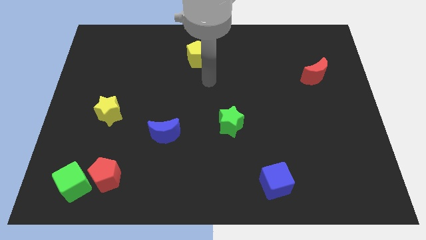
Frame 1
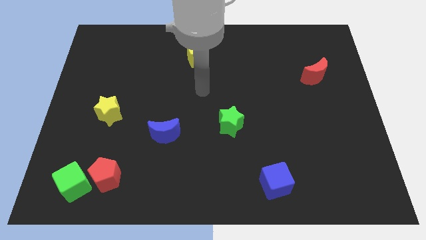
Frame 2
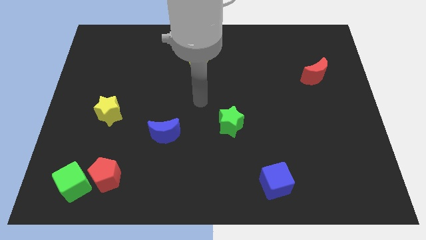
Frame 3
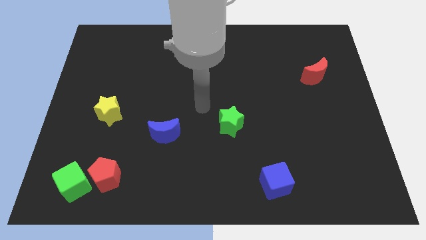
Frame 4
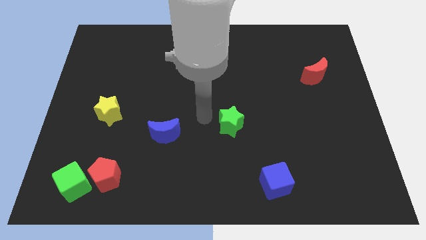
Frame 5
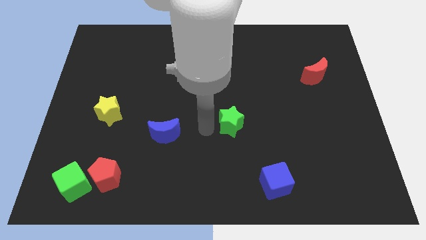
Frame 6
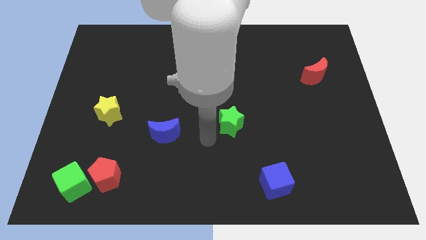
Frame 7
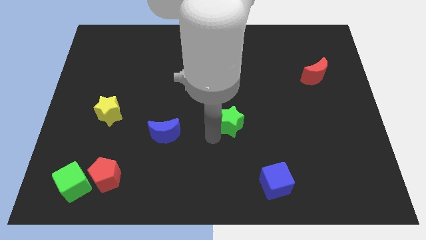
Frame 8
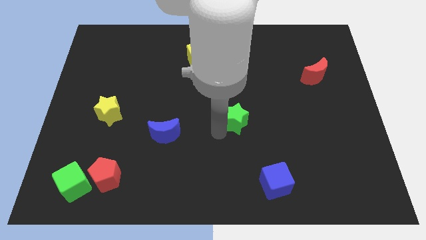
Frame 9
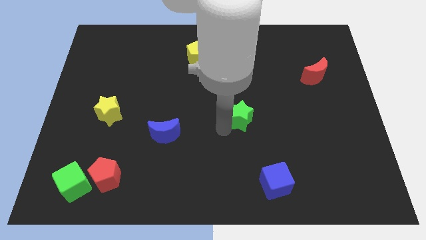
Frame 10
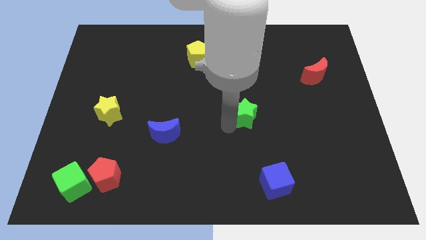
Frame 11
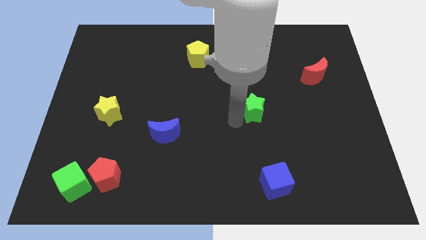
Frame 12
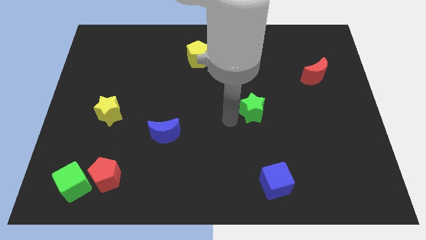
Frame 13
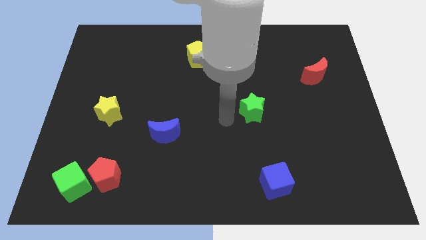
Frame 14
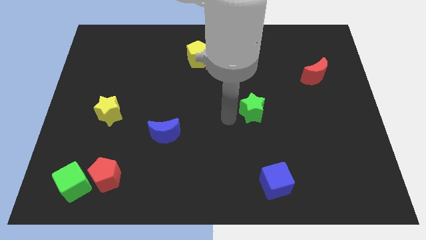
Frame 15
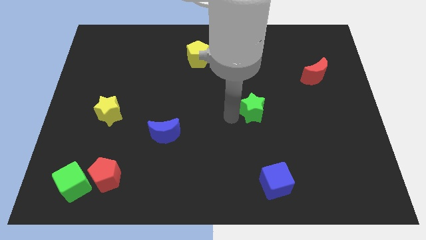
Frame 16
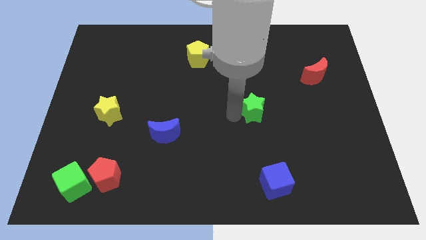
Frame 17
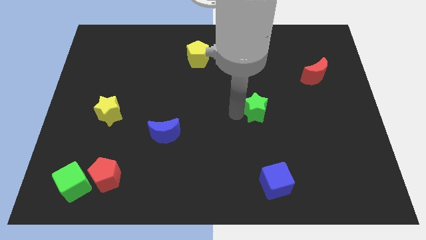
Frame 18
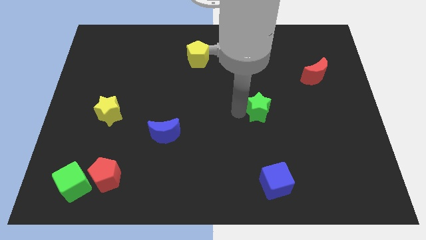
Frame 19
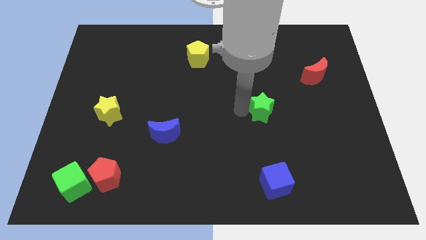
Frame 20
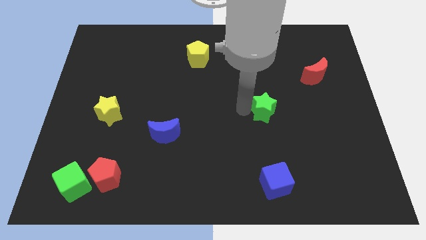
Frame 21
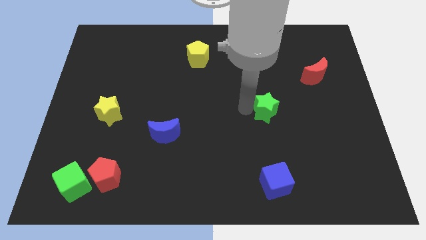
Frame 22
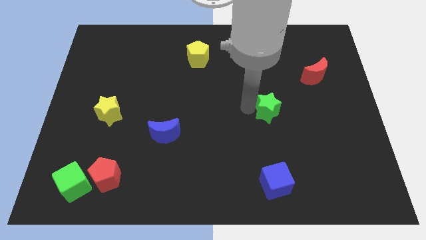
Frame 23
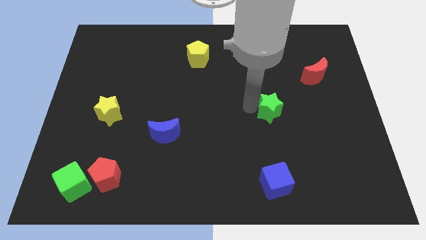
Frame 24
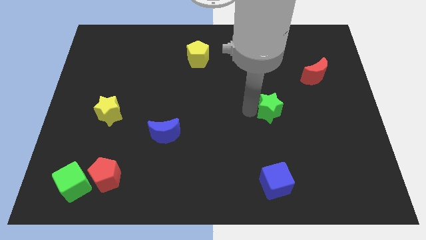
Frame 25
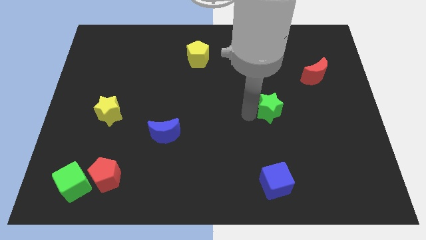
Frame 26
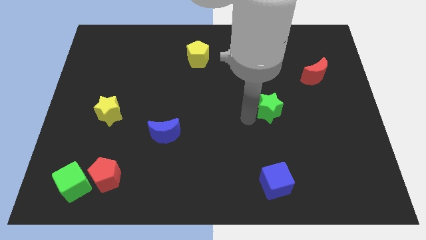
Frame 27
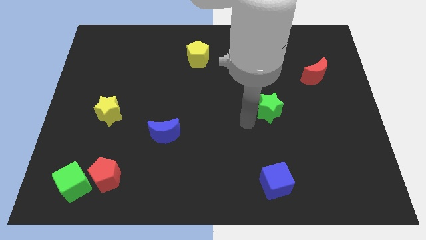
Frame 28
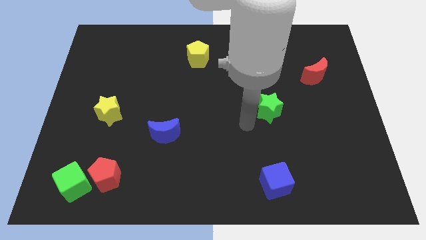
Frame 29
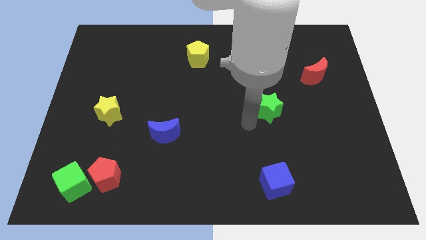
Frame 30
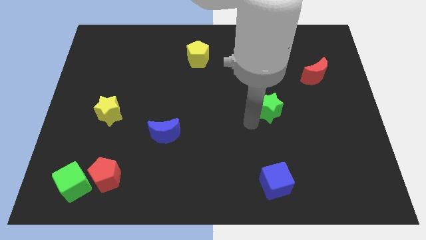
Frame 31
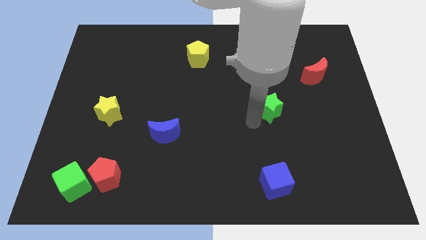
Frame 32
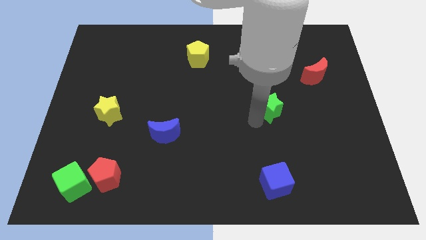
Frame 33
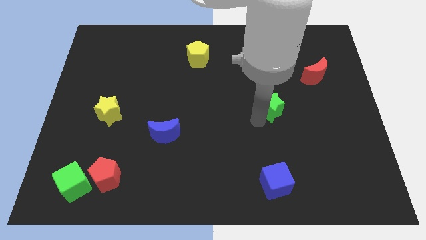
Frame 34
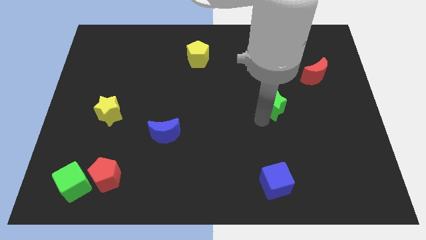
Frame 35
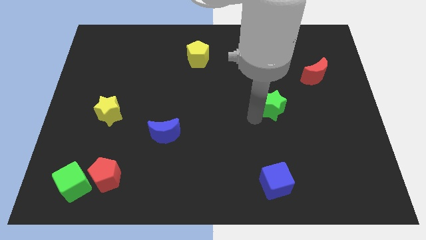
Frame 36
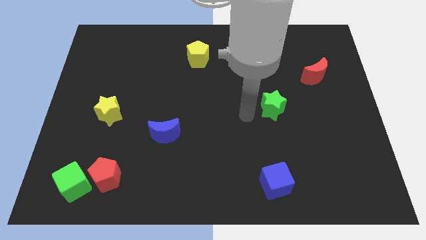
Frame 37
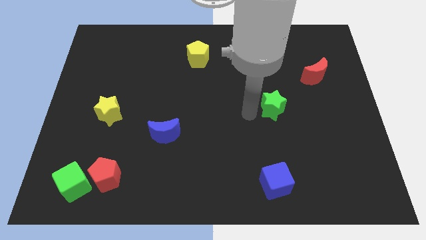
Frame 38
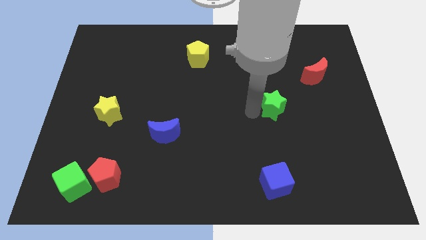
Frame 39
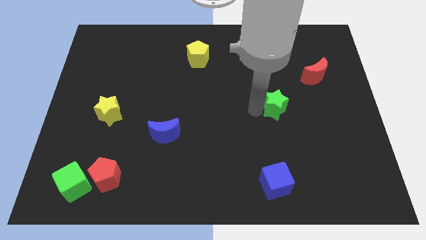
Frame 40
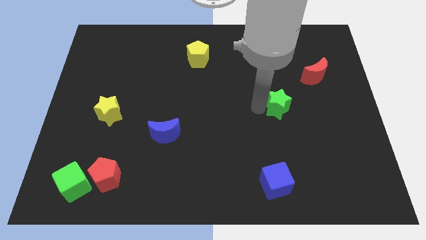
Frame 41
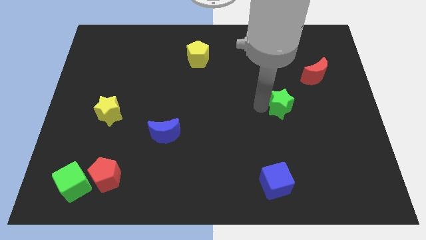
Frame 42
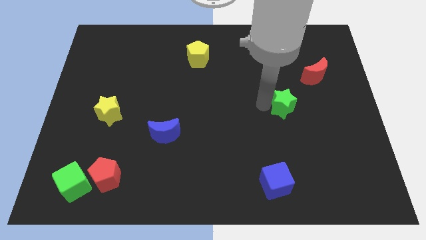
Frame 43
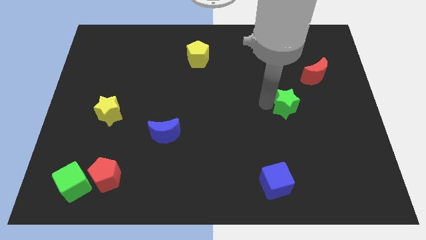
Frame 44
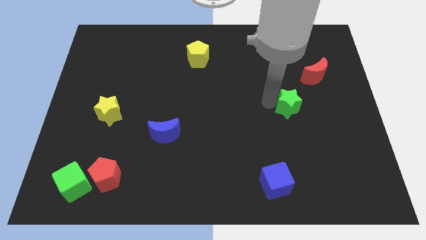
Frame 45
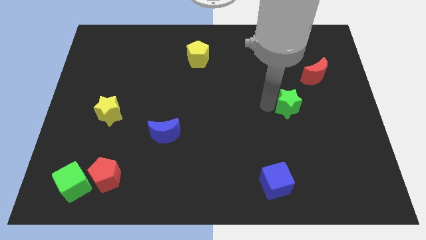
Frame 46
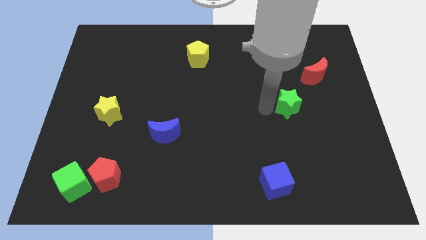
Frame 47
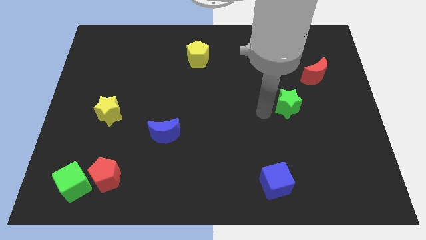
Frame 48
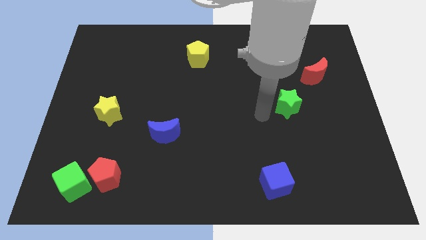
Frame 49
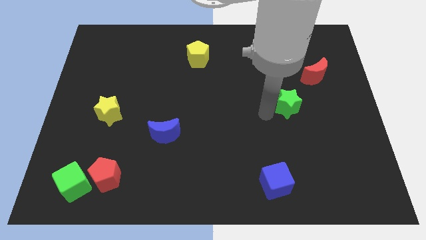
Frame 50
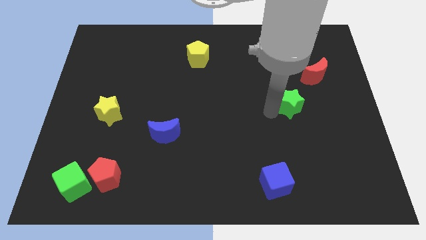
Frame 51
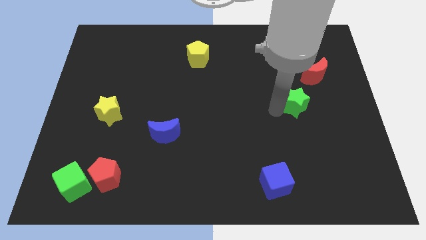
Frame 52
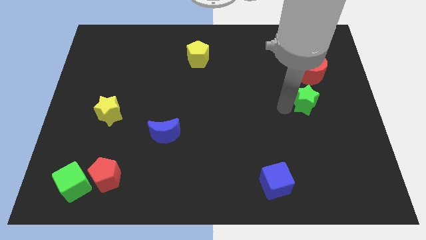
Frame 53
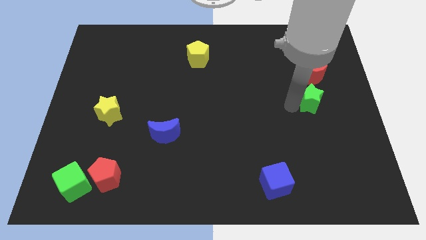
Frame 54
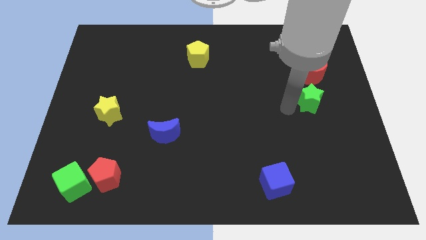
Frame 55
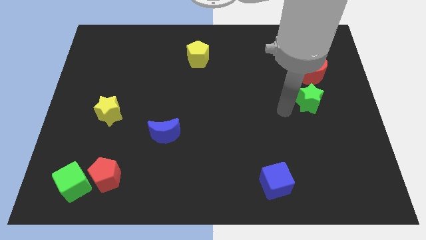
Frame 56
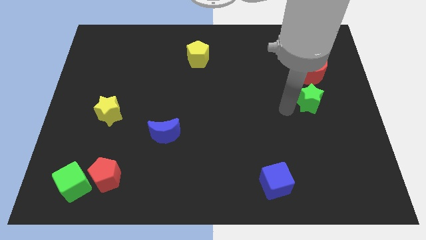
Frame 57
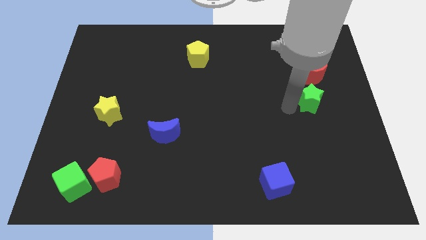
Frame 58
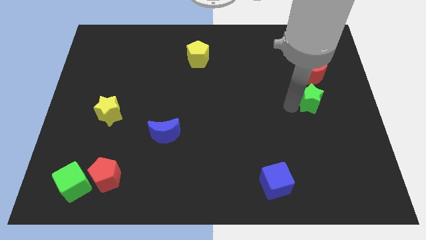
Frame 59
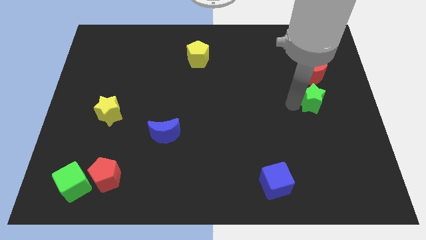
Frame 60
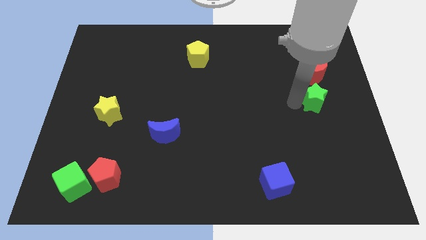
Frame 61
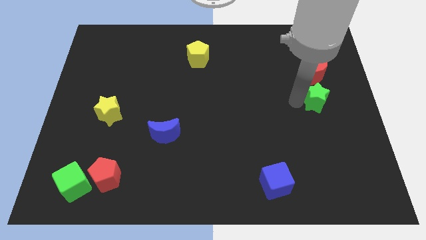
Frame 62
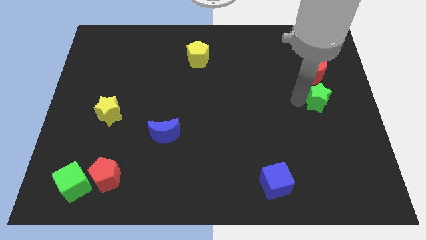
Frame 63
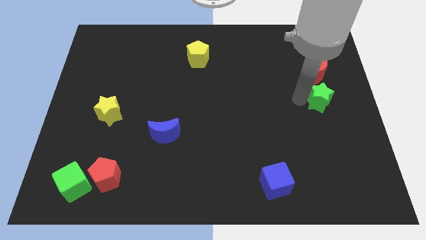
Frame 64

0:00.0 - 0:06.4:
put the green star to the right side
